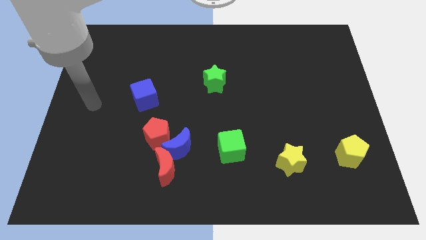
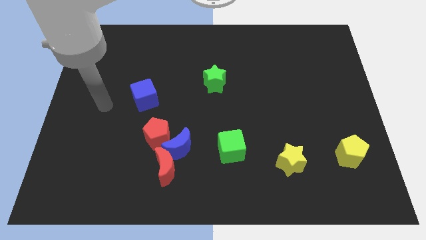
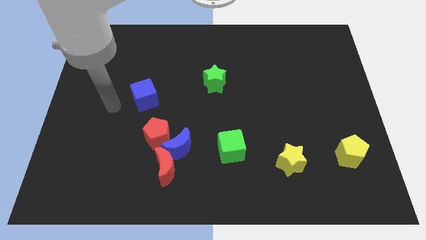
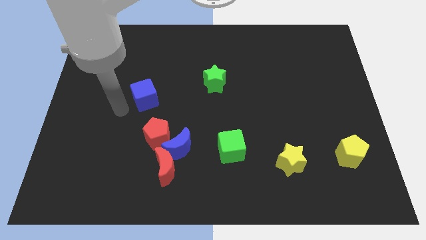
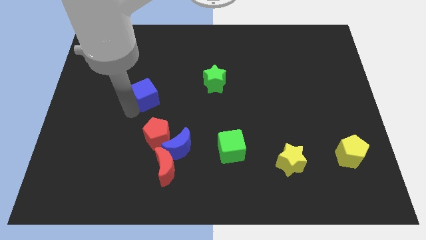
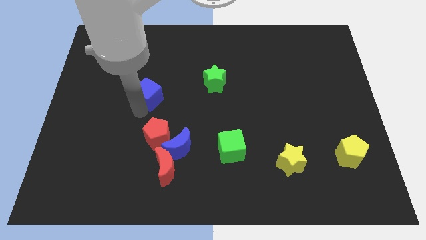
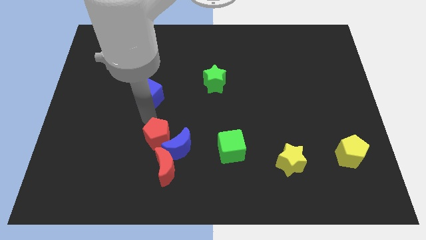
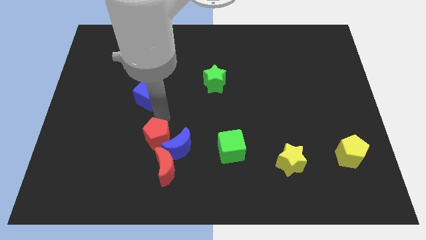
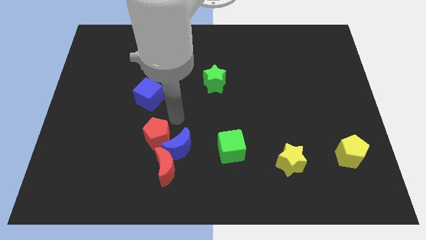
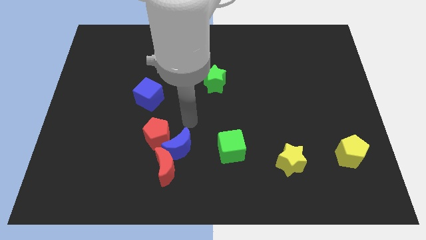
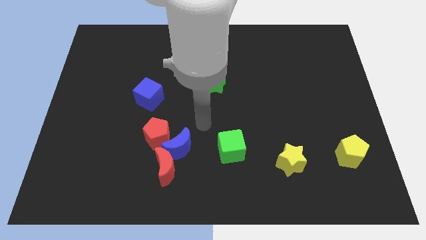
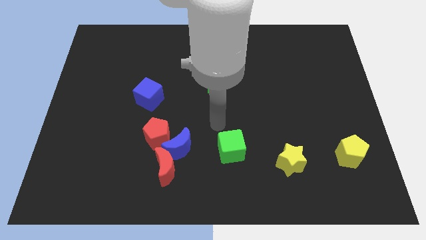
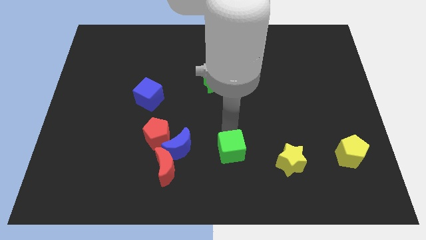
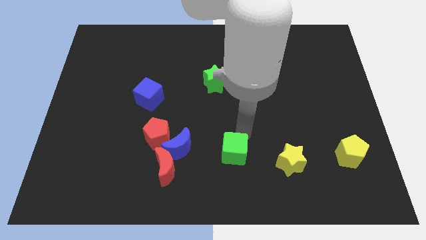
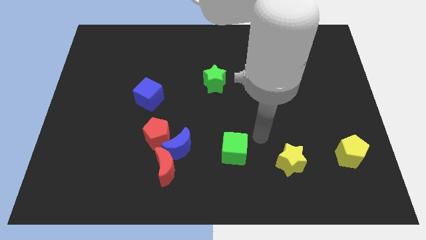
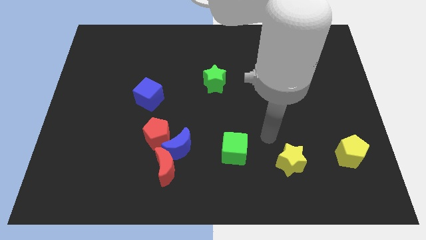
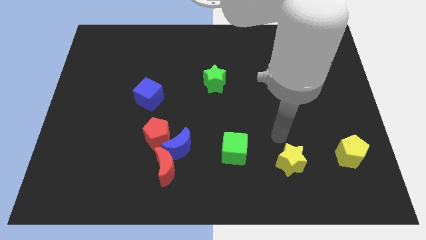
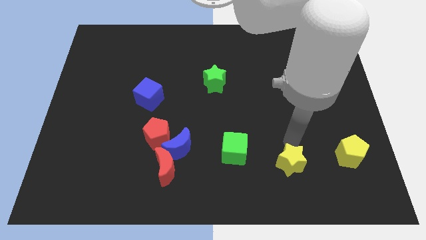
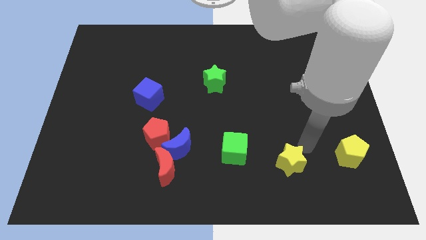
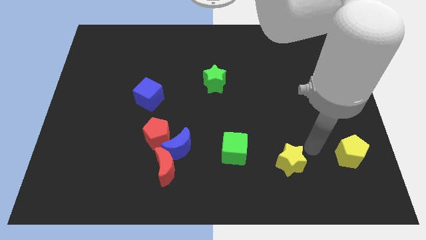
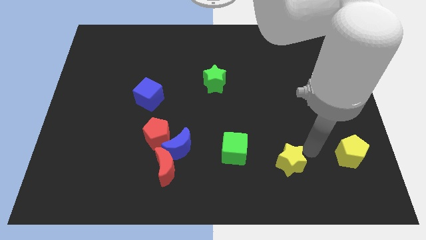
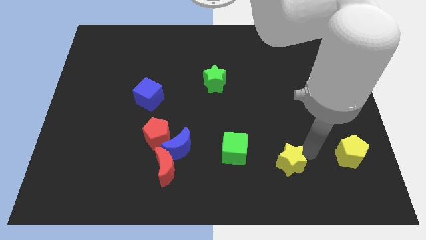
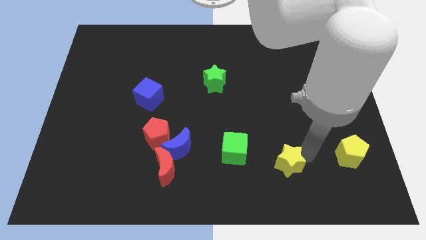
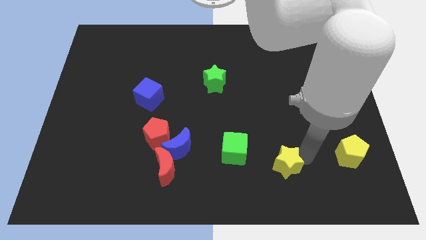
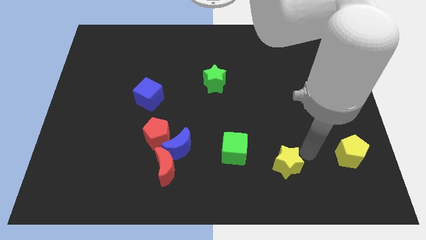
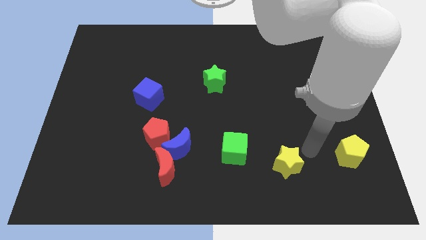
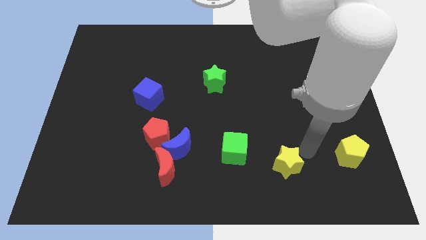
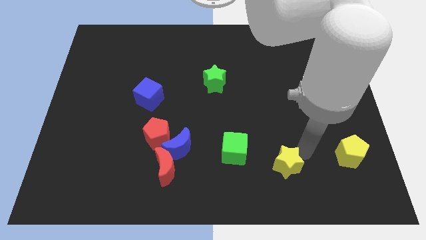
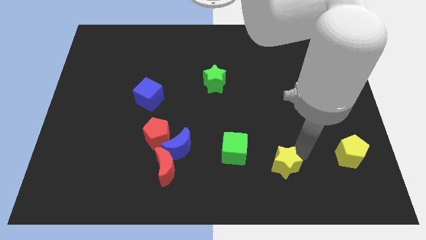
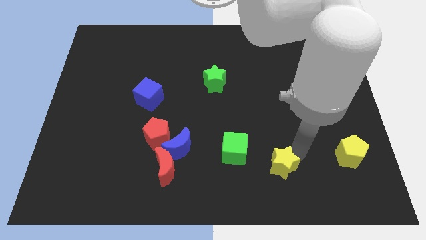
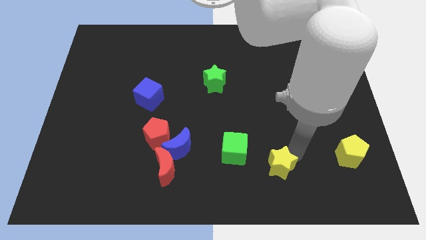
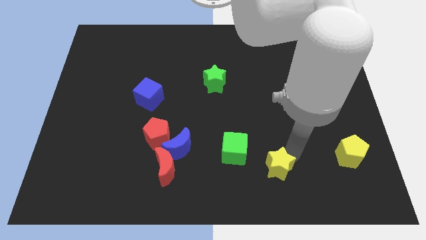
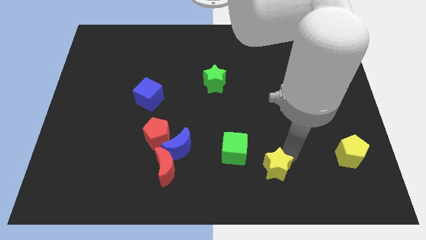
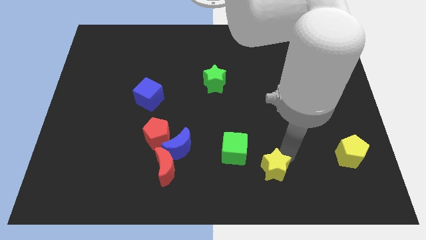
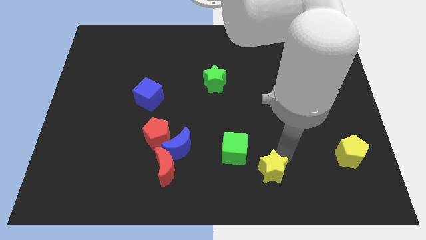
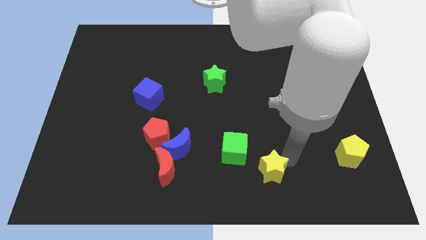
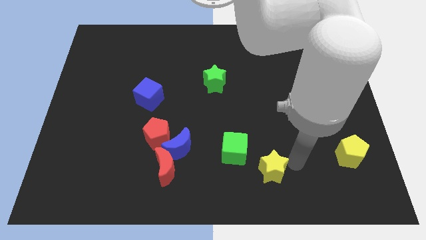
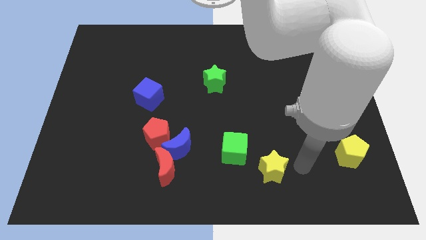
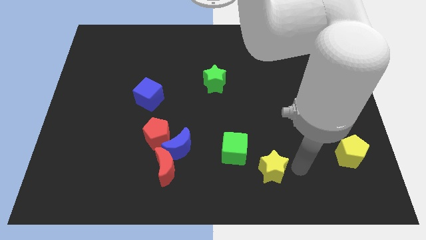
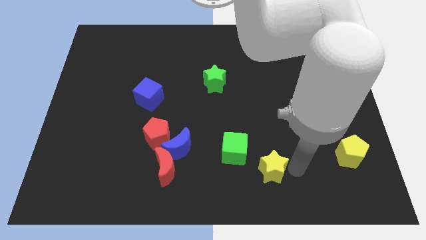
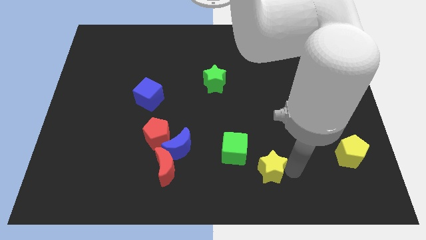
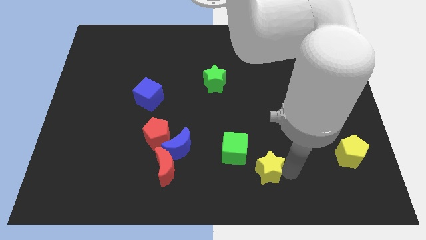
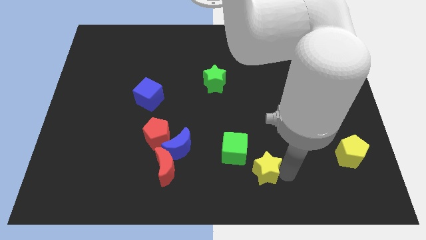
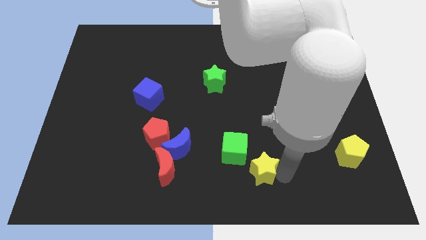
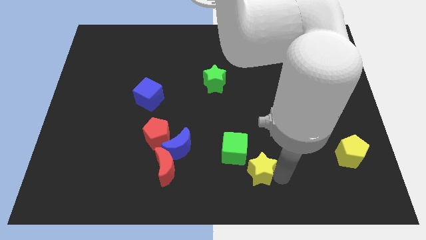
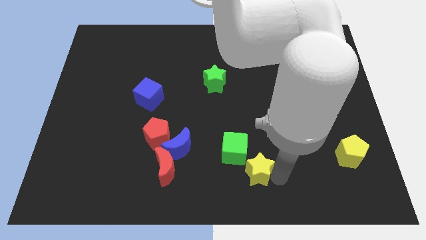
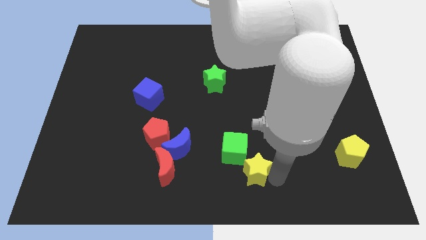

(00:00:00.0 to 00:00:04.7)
slightly push the yellow star to the left

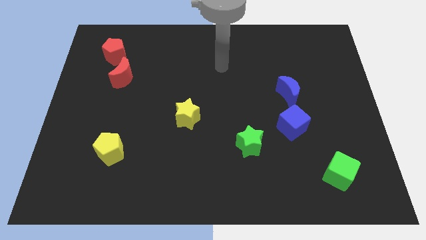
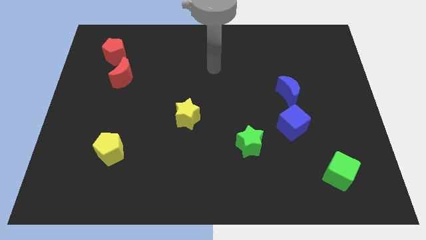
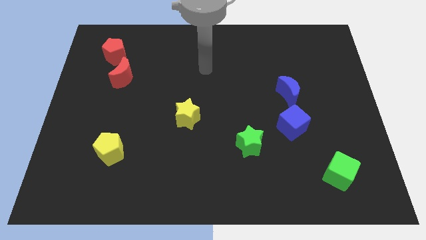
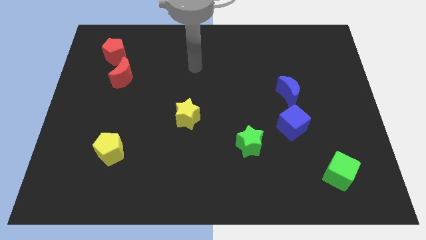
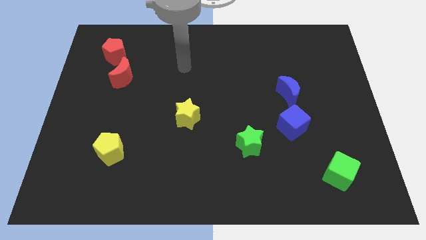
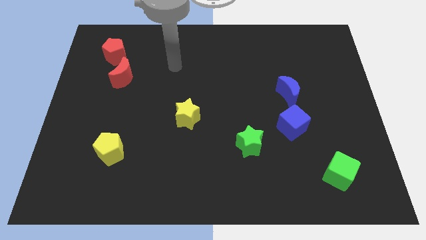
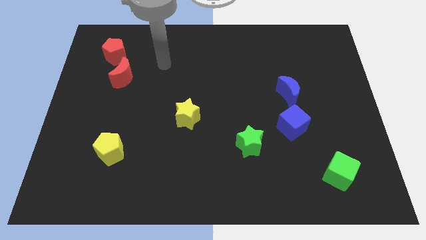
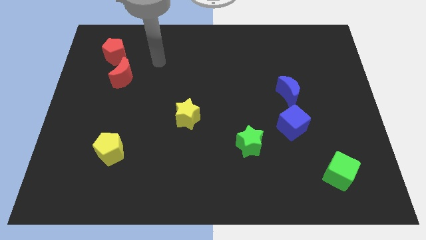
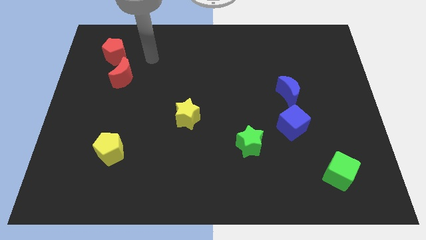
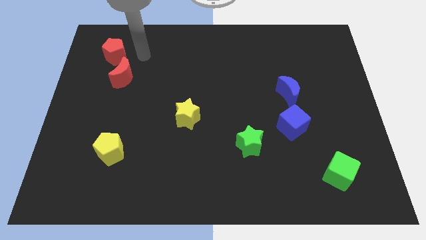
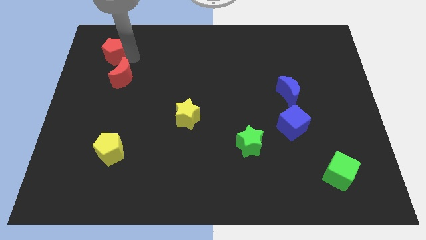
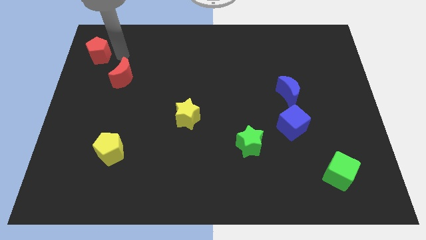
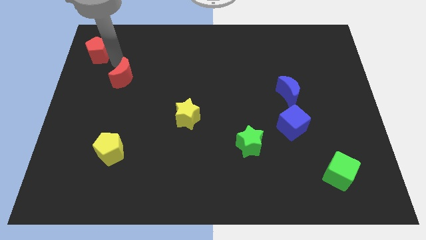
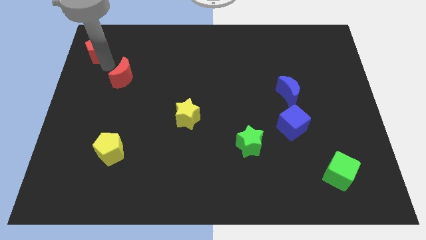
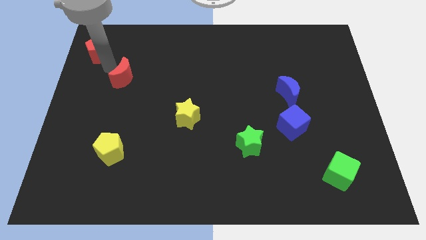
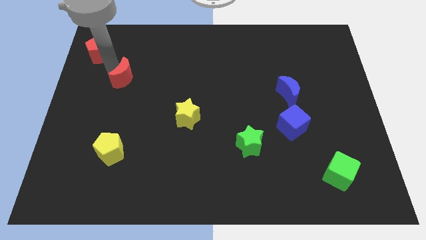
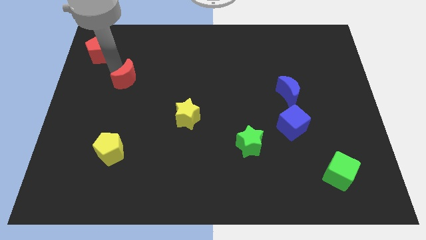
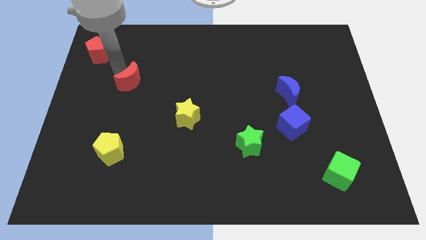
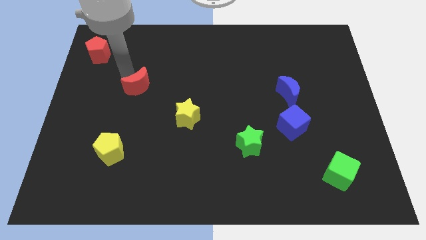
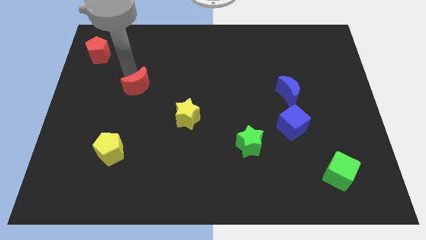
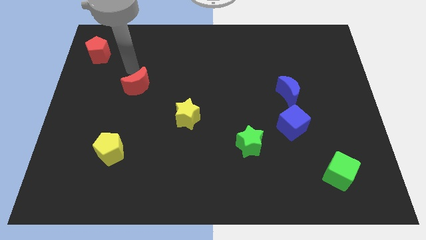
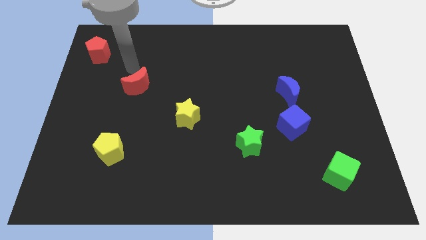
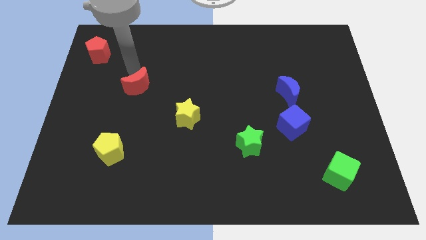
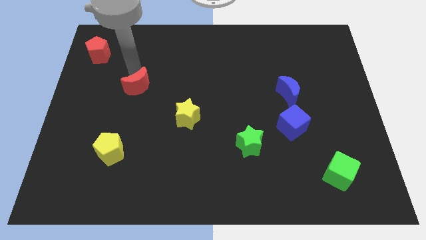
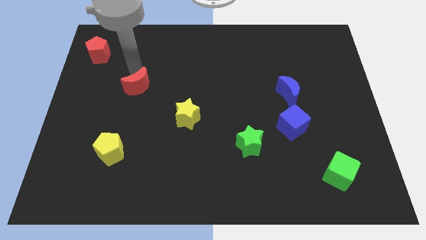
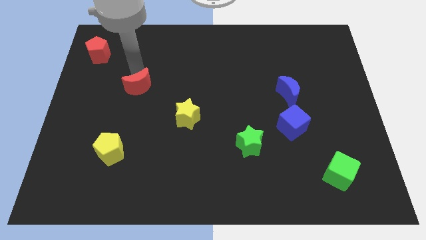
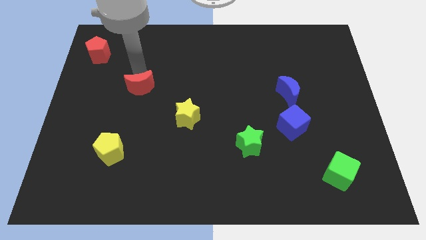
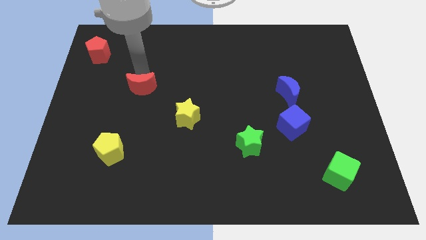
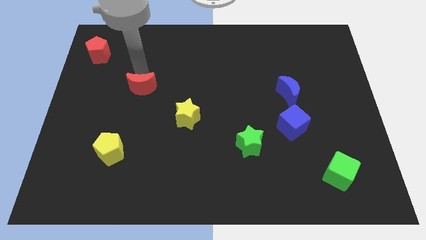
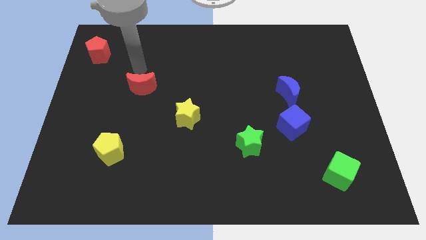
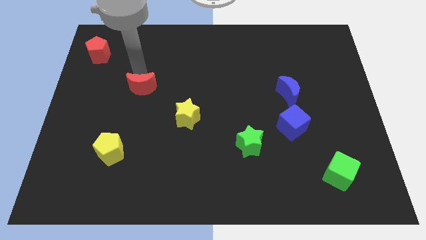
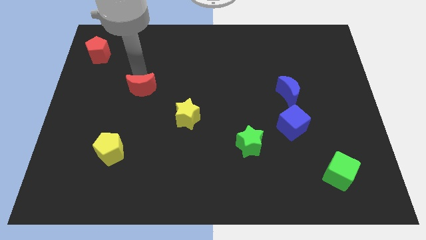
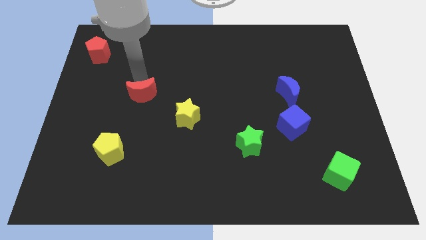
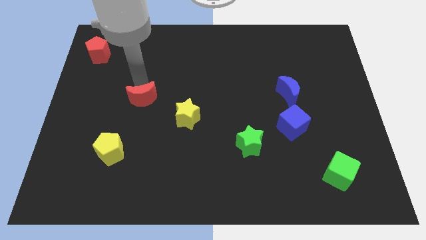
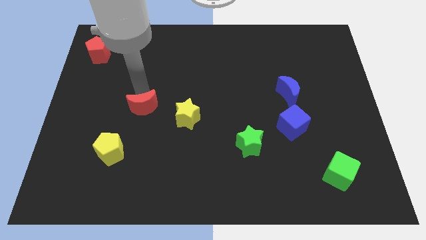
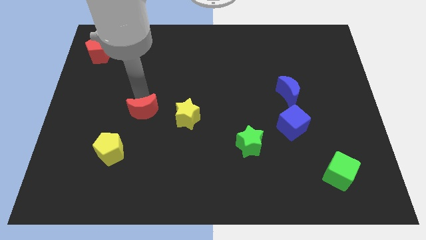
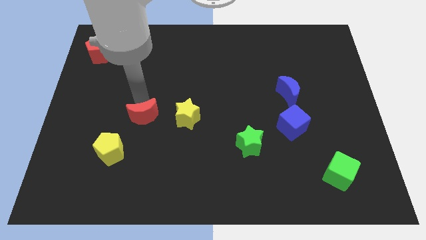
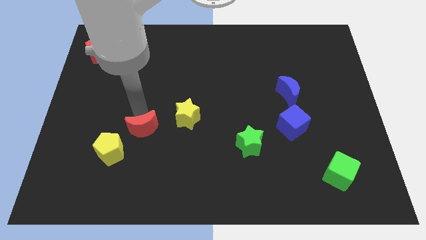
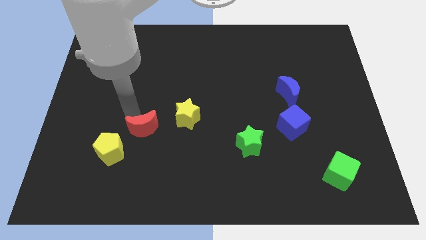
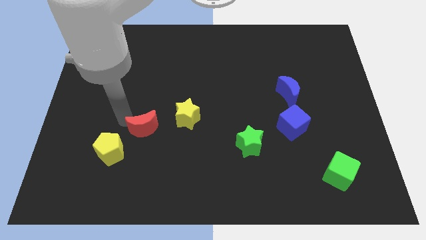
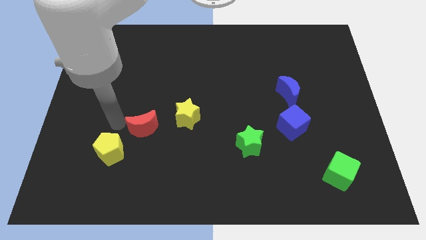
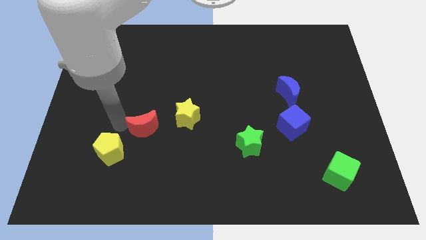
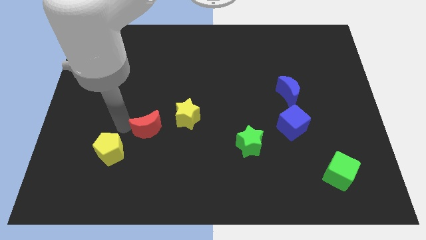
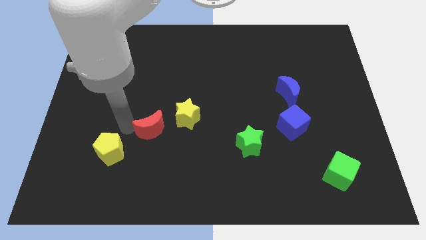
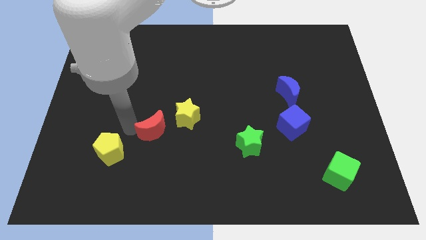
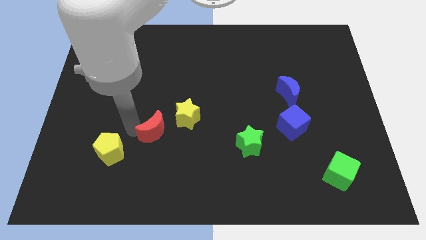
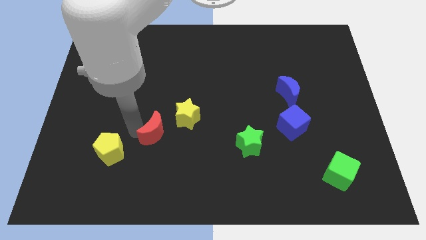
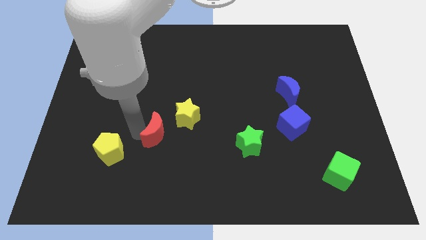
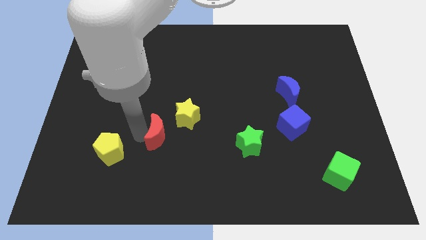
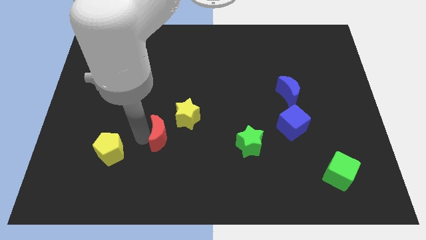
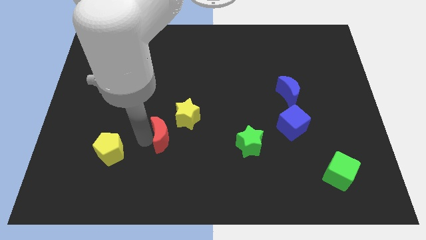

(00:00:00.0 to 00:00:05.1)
move the red moon down and to the right
